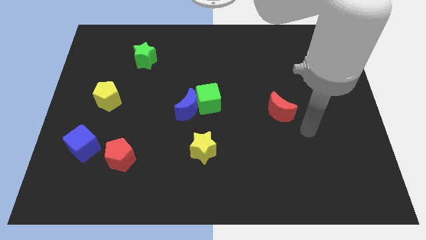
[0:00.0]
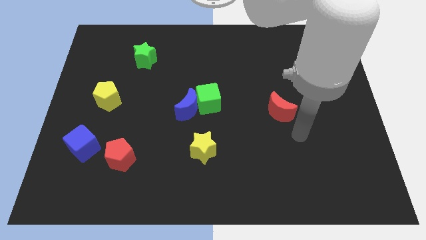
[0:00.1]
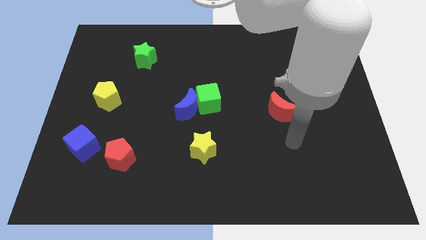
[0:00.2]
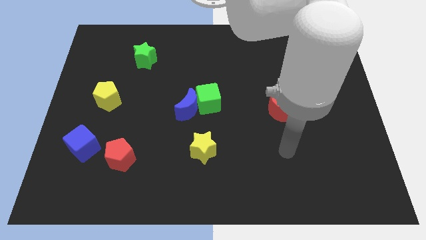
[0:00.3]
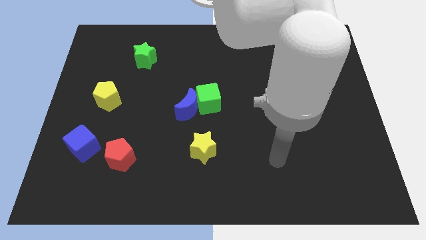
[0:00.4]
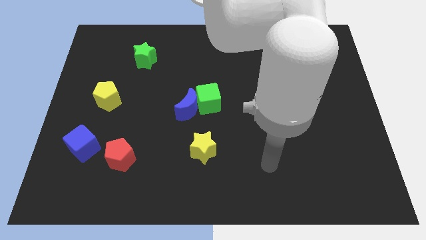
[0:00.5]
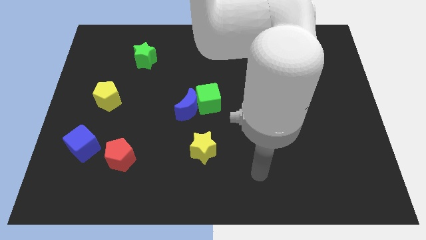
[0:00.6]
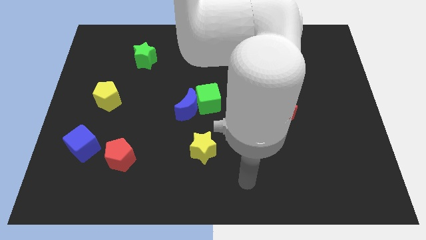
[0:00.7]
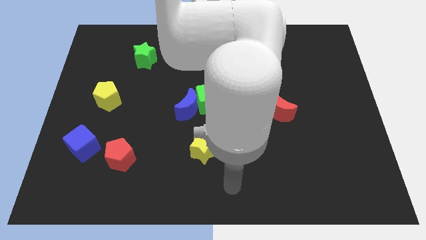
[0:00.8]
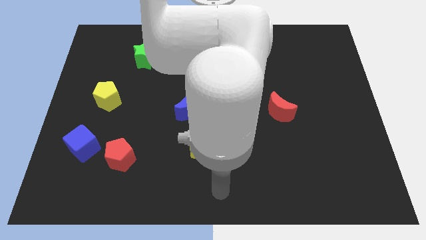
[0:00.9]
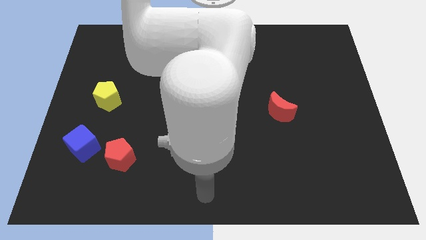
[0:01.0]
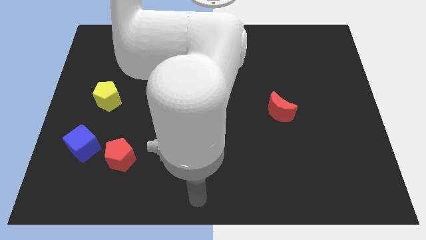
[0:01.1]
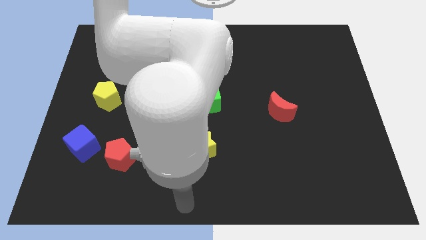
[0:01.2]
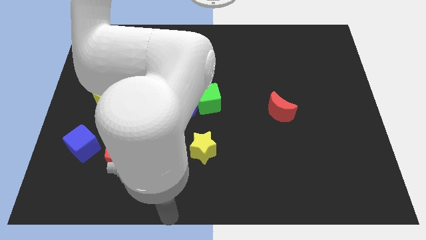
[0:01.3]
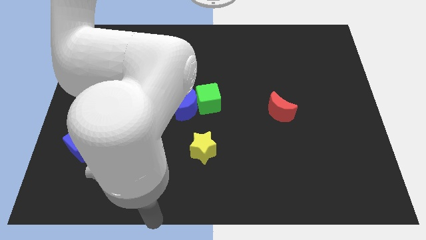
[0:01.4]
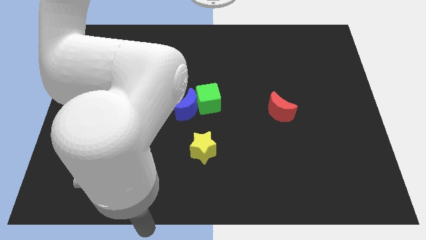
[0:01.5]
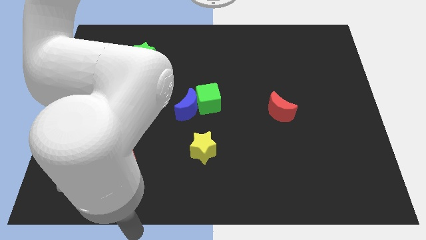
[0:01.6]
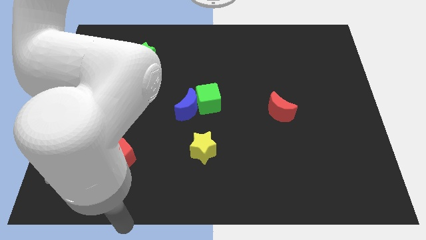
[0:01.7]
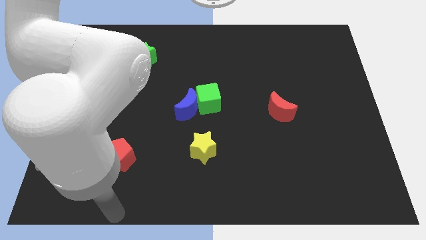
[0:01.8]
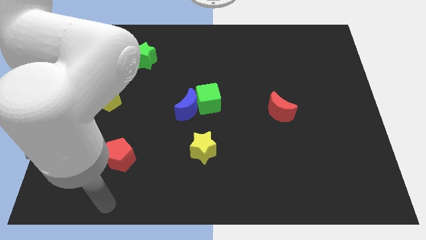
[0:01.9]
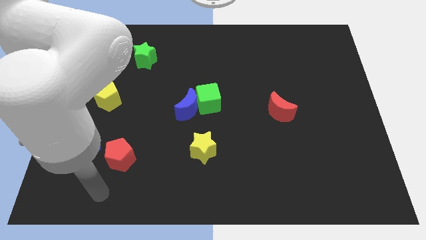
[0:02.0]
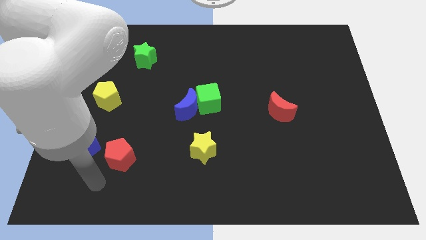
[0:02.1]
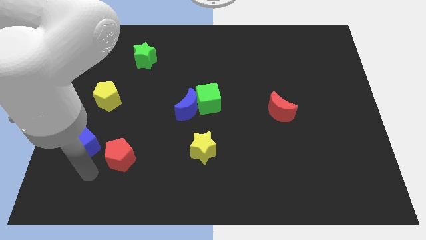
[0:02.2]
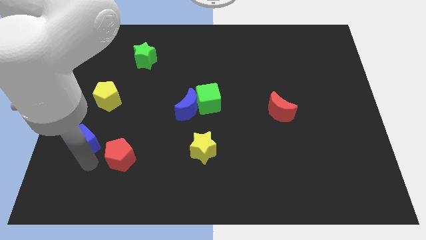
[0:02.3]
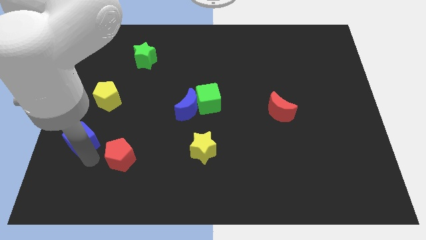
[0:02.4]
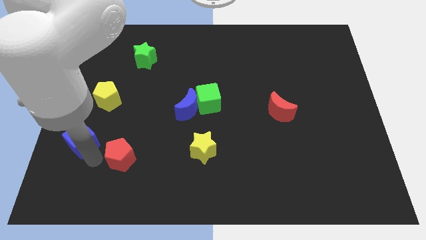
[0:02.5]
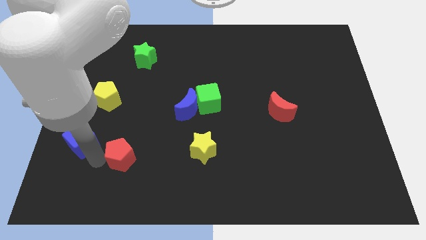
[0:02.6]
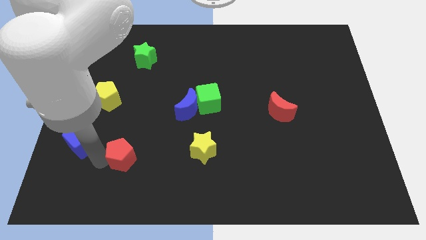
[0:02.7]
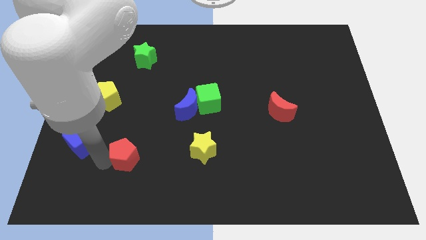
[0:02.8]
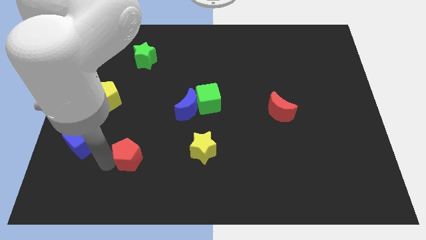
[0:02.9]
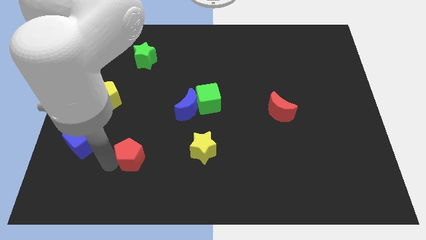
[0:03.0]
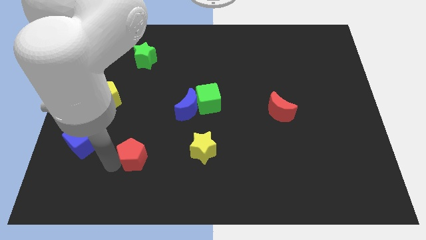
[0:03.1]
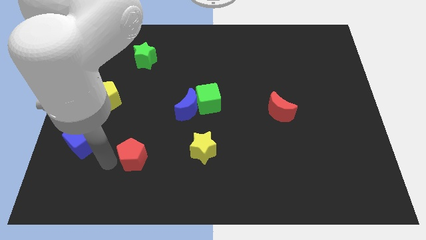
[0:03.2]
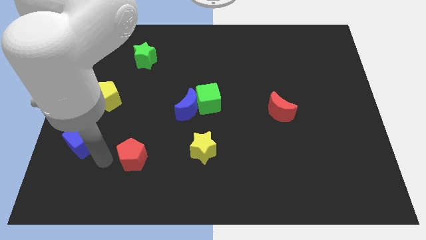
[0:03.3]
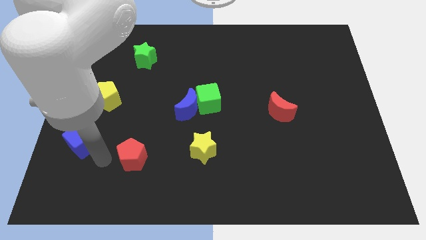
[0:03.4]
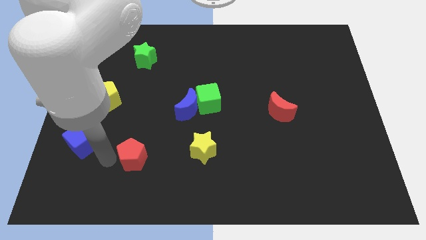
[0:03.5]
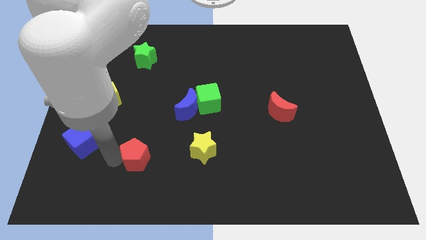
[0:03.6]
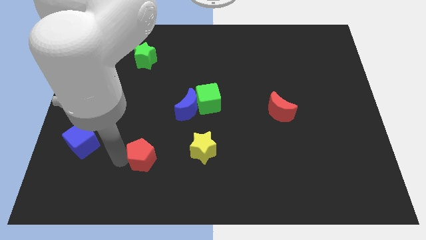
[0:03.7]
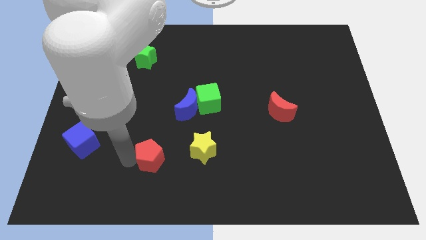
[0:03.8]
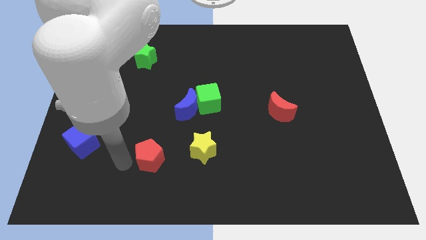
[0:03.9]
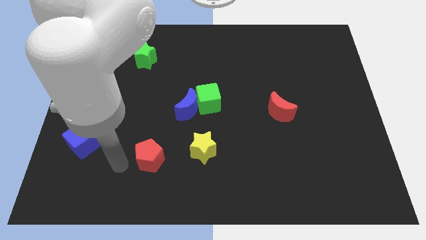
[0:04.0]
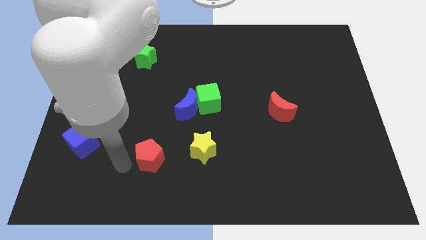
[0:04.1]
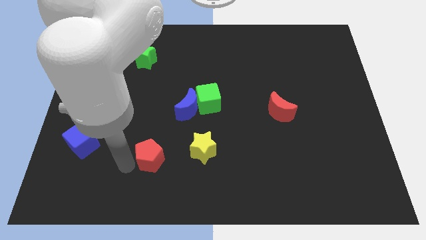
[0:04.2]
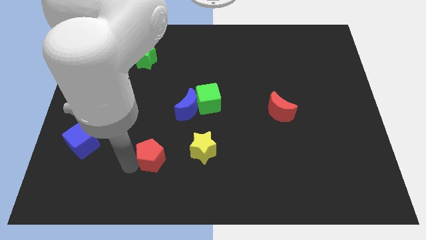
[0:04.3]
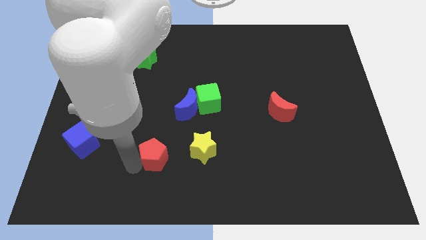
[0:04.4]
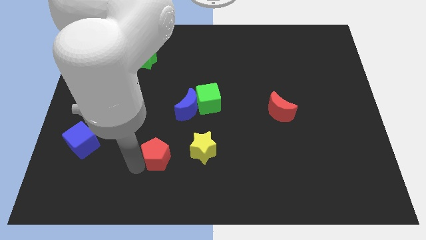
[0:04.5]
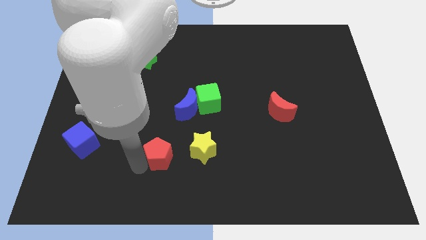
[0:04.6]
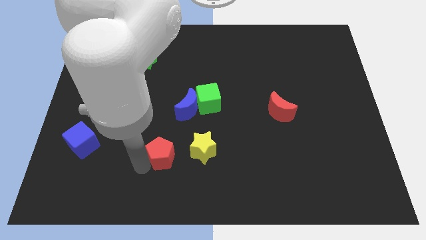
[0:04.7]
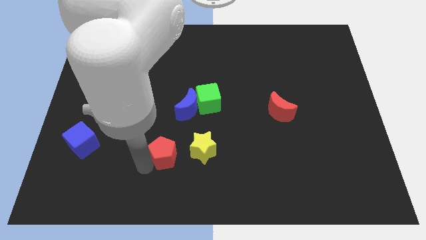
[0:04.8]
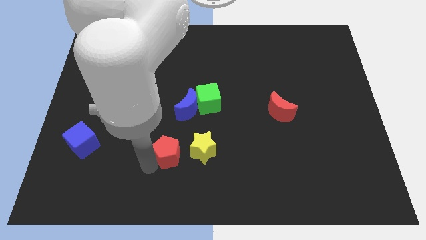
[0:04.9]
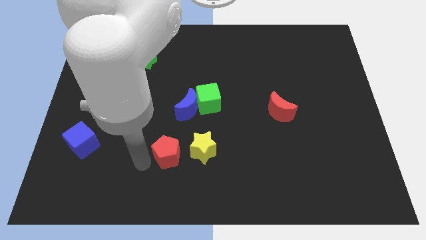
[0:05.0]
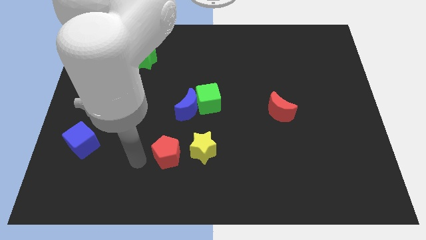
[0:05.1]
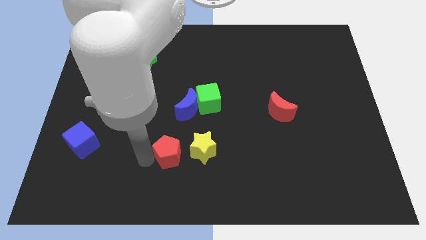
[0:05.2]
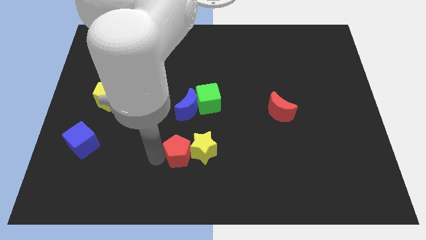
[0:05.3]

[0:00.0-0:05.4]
push the red pentagon close to the yellow star

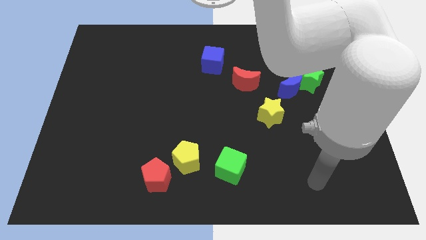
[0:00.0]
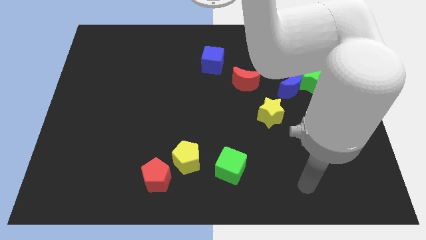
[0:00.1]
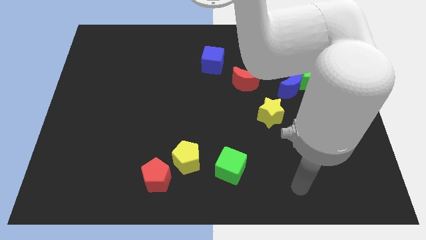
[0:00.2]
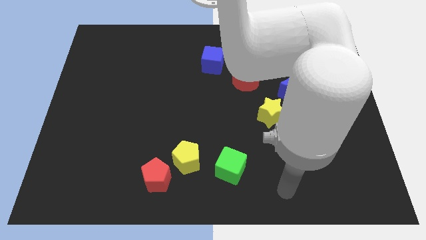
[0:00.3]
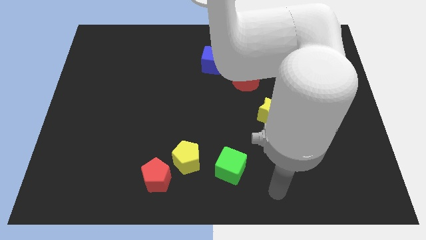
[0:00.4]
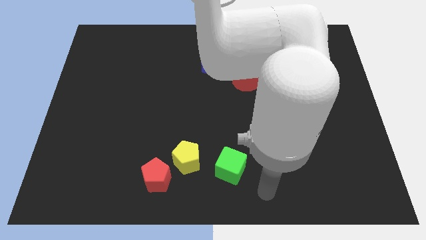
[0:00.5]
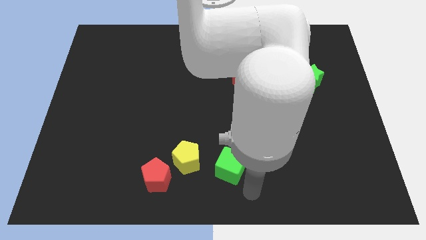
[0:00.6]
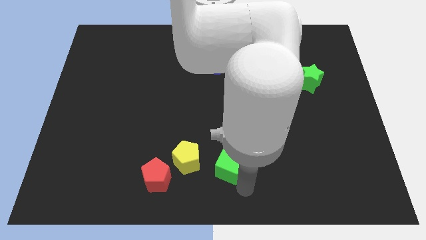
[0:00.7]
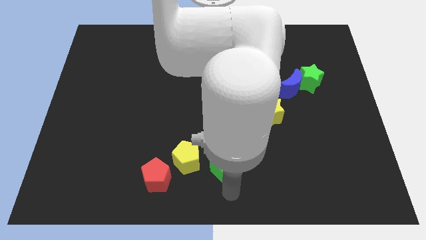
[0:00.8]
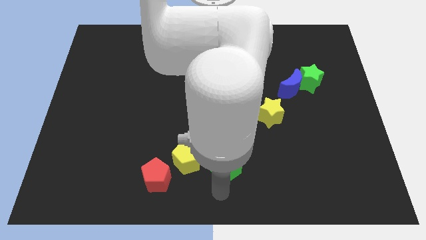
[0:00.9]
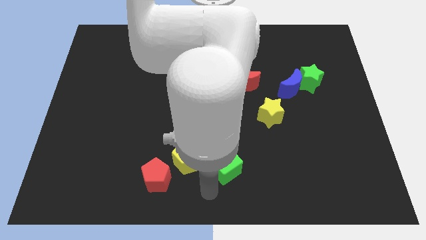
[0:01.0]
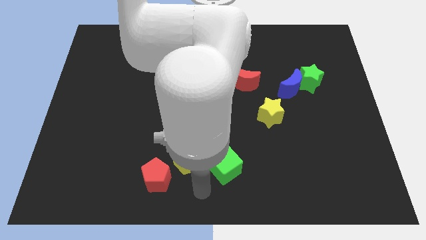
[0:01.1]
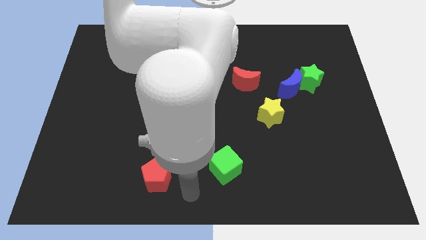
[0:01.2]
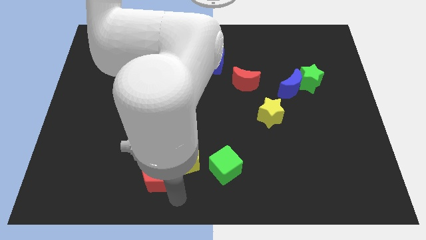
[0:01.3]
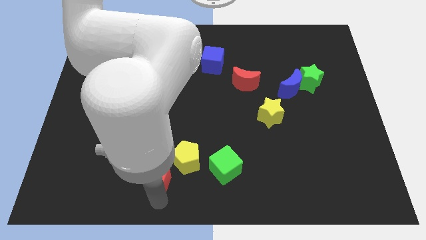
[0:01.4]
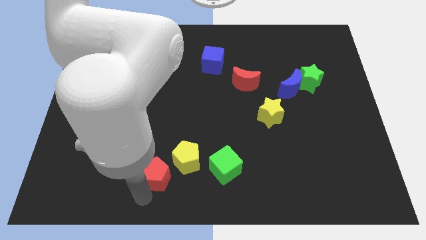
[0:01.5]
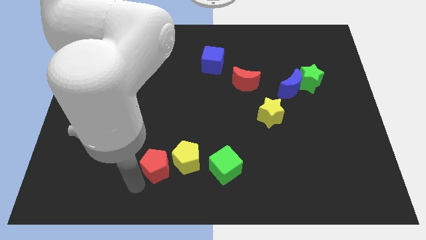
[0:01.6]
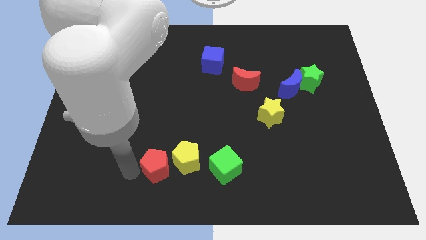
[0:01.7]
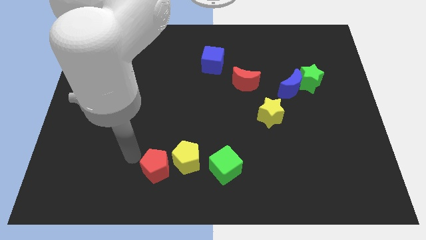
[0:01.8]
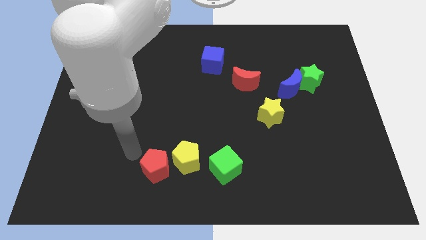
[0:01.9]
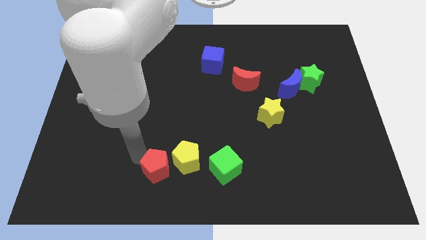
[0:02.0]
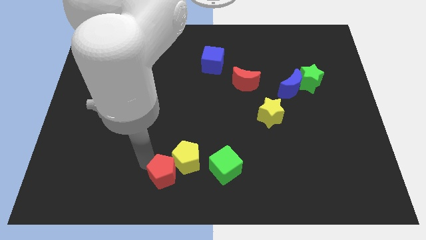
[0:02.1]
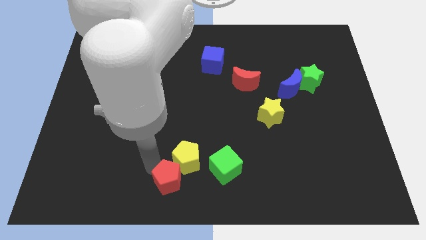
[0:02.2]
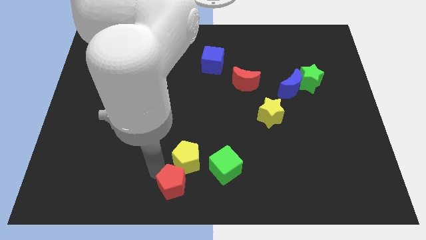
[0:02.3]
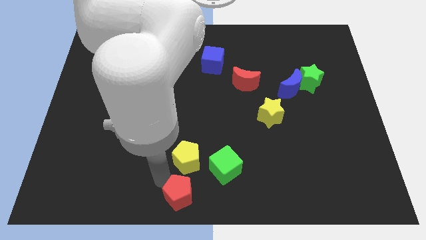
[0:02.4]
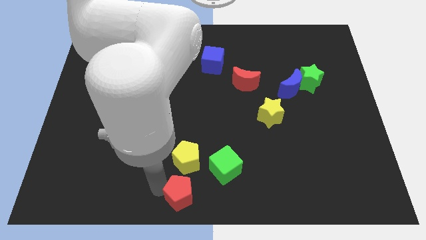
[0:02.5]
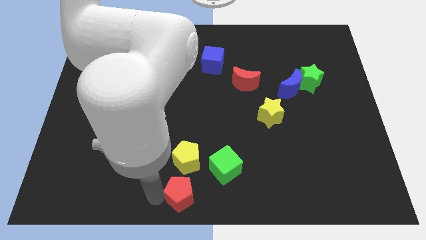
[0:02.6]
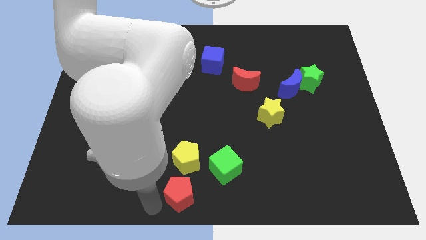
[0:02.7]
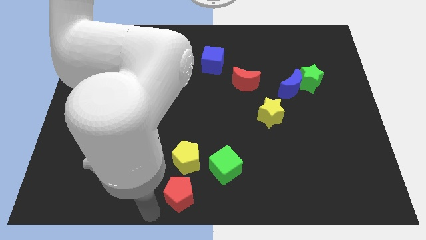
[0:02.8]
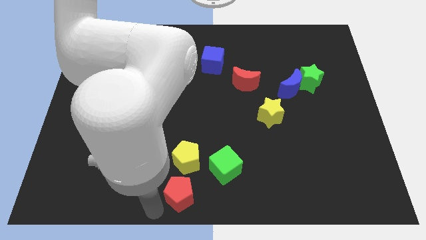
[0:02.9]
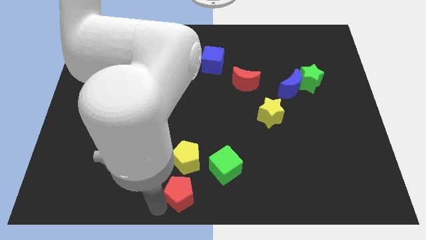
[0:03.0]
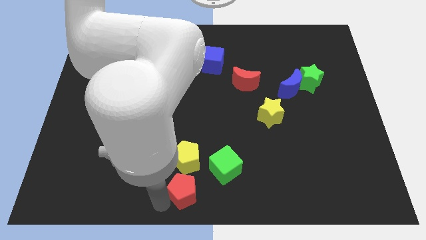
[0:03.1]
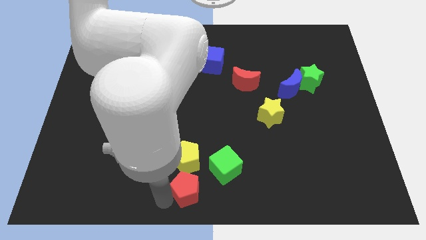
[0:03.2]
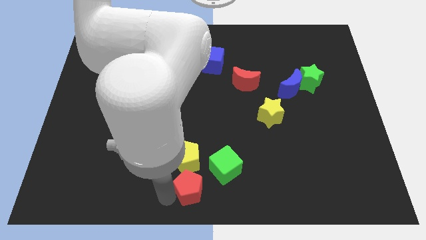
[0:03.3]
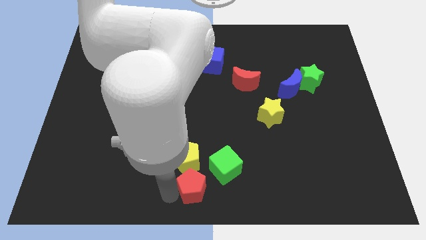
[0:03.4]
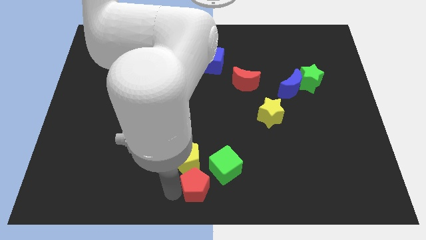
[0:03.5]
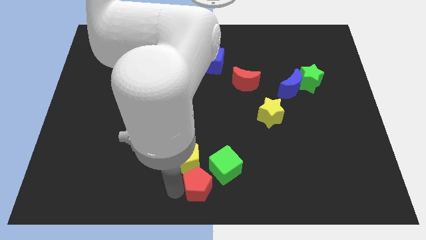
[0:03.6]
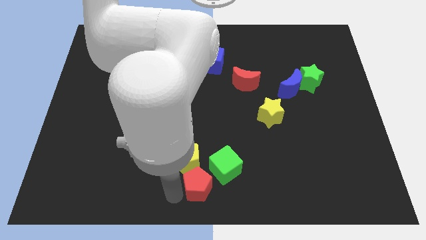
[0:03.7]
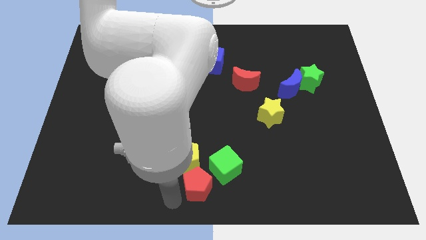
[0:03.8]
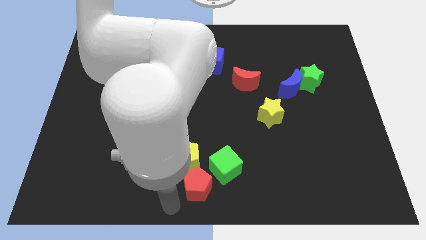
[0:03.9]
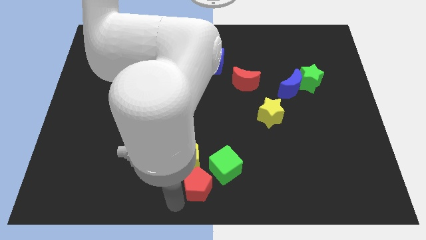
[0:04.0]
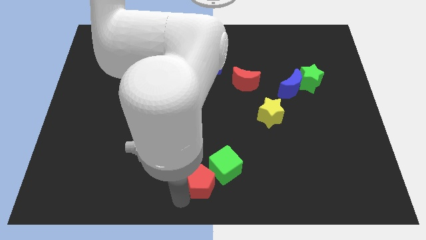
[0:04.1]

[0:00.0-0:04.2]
slide the red pentagon close to the green cube
